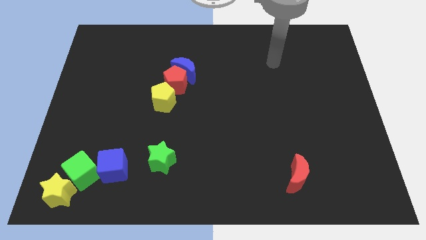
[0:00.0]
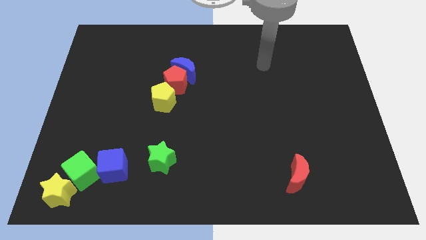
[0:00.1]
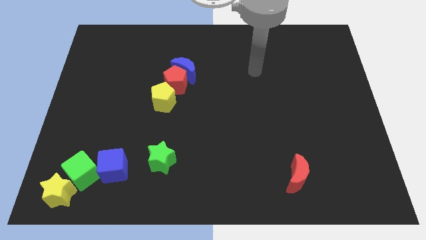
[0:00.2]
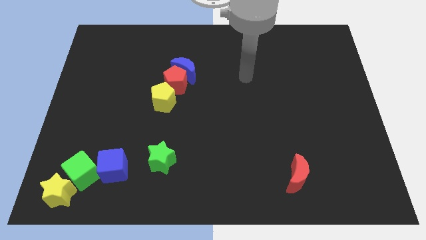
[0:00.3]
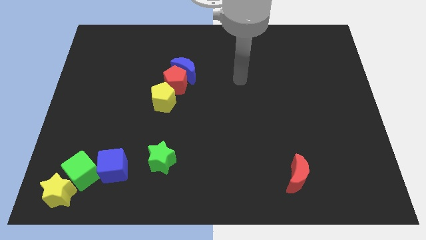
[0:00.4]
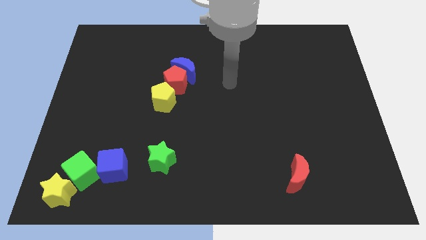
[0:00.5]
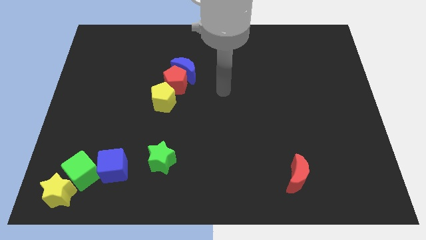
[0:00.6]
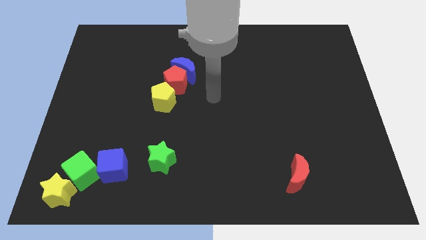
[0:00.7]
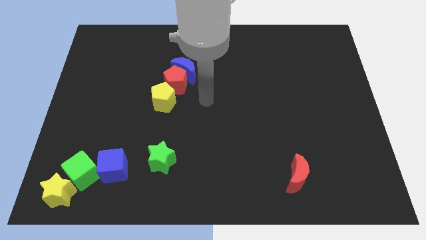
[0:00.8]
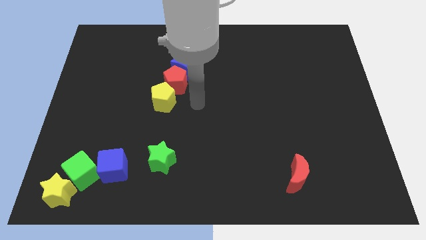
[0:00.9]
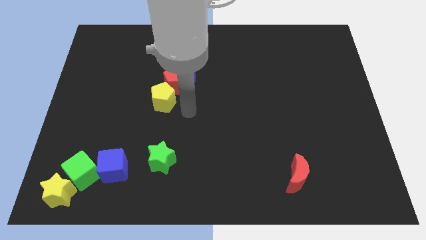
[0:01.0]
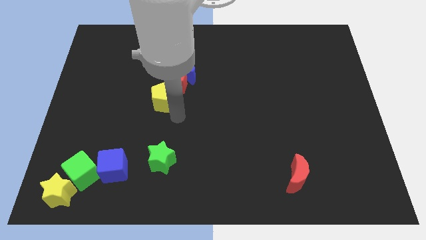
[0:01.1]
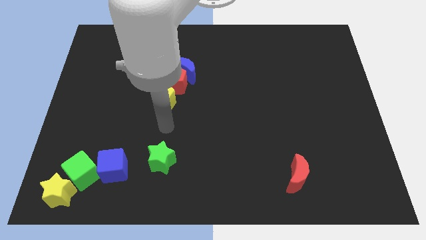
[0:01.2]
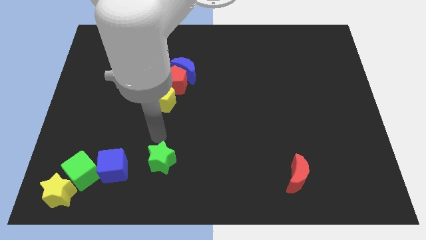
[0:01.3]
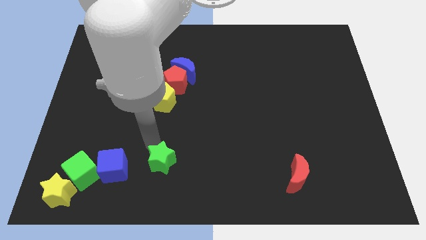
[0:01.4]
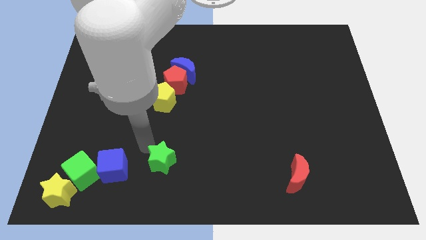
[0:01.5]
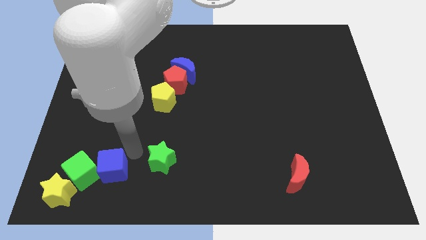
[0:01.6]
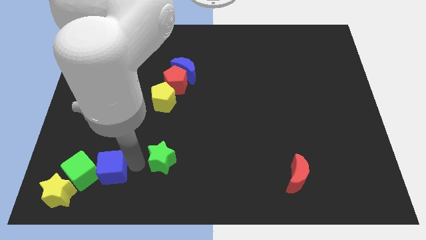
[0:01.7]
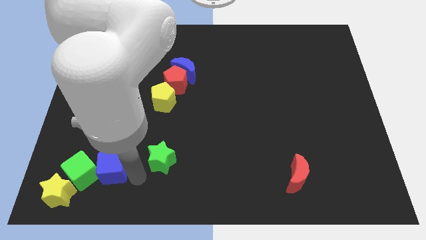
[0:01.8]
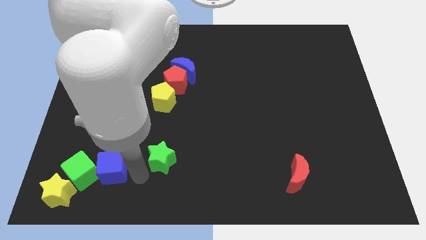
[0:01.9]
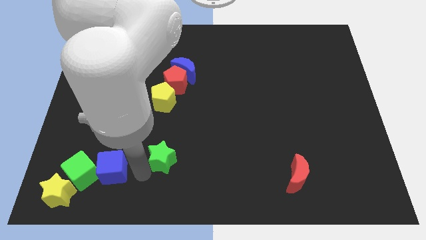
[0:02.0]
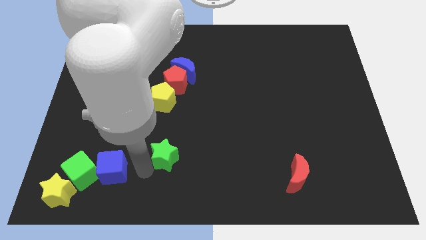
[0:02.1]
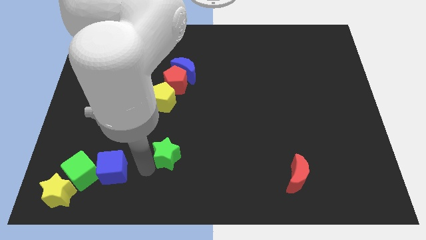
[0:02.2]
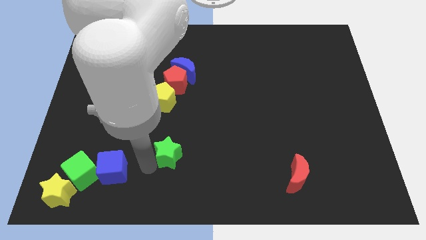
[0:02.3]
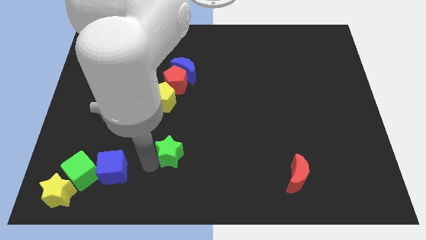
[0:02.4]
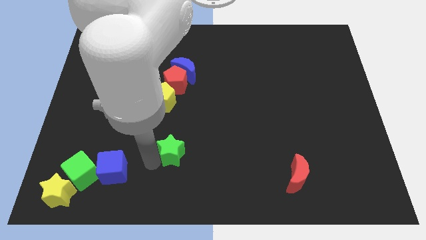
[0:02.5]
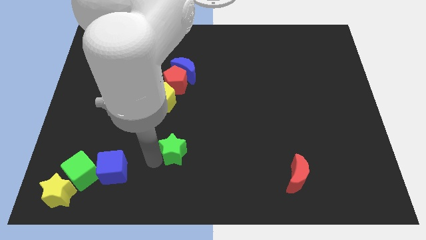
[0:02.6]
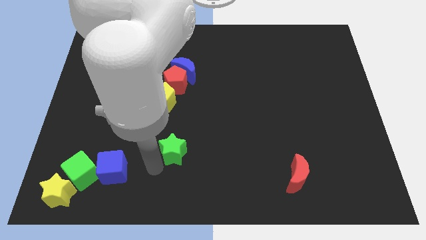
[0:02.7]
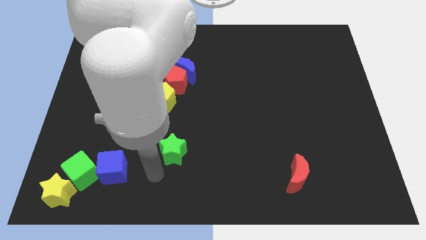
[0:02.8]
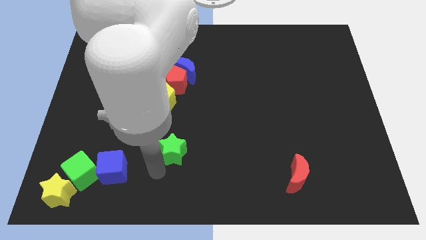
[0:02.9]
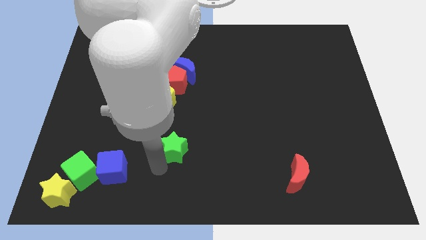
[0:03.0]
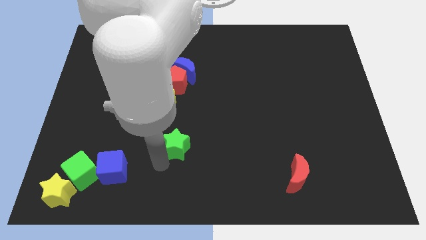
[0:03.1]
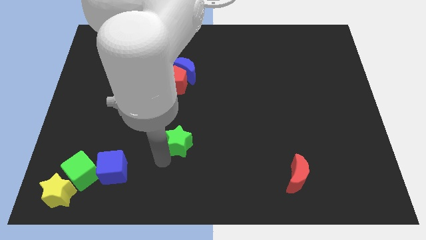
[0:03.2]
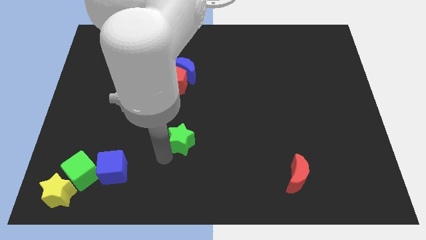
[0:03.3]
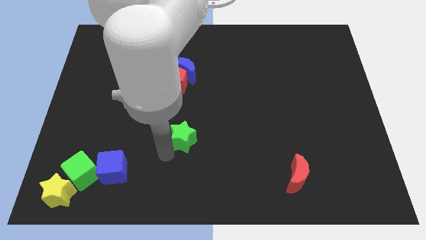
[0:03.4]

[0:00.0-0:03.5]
slightly move the green star up and then to the right

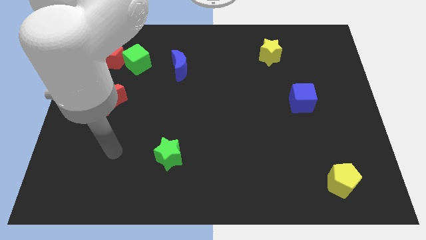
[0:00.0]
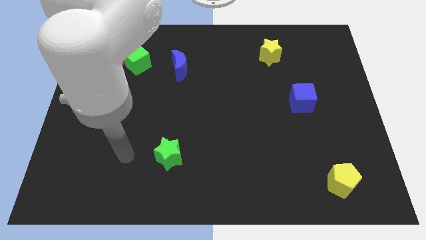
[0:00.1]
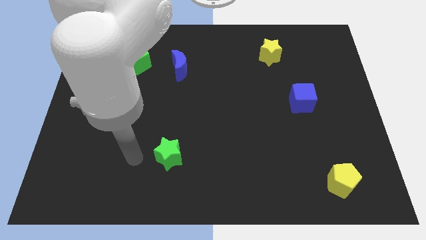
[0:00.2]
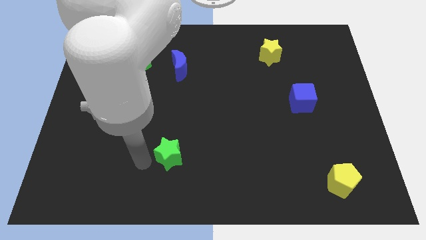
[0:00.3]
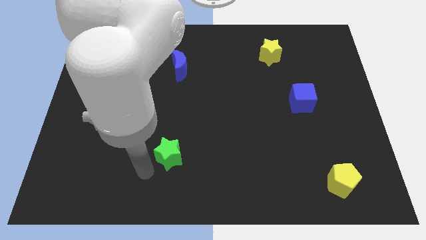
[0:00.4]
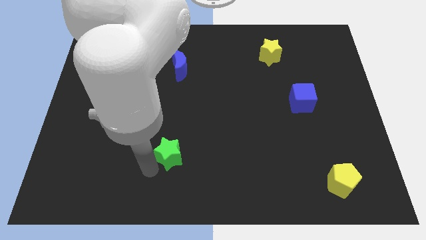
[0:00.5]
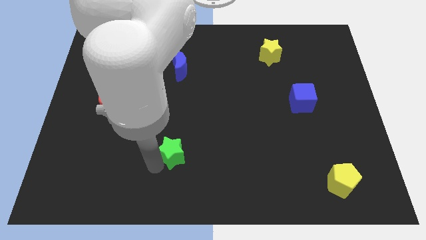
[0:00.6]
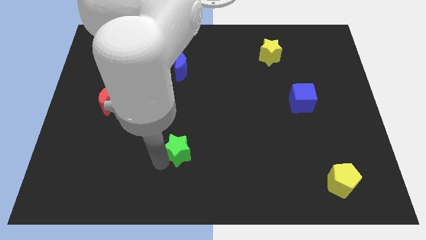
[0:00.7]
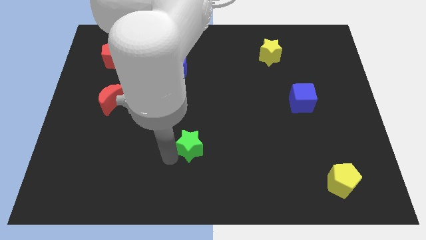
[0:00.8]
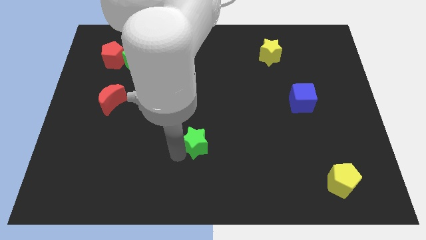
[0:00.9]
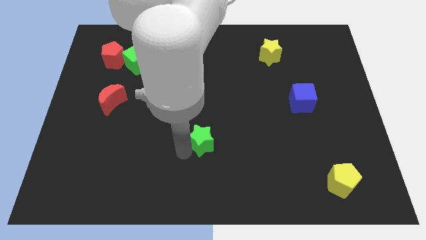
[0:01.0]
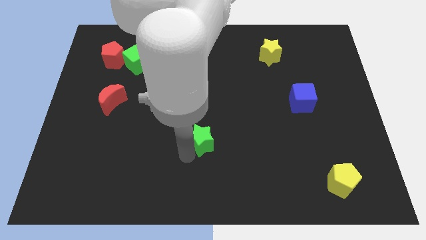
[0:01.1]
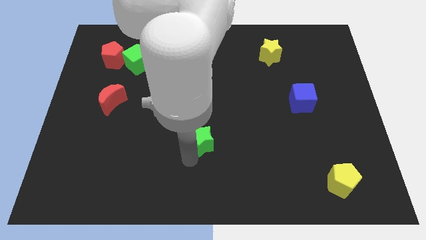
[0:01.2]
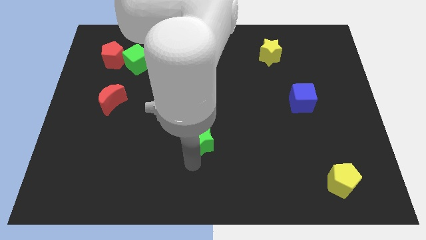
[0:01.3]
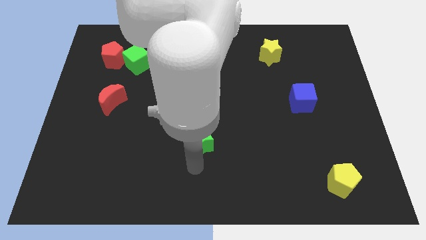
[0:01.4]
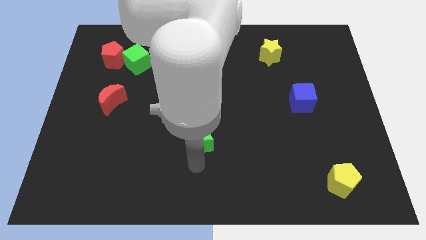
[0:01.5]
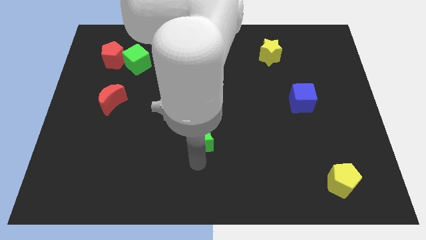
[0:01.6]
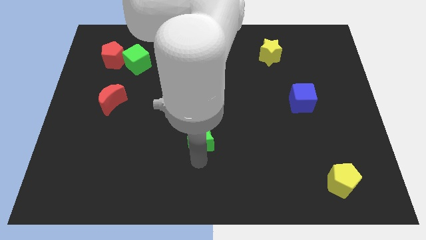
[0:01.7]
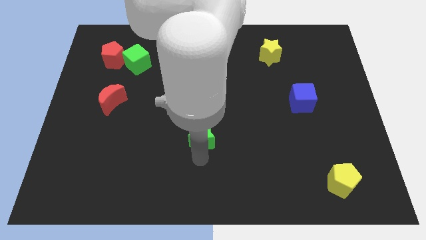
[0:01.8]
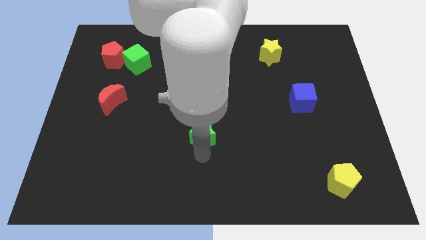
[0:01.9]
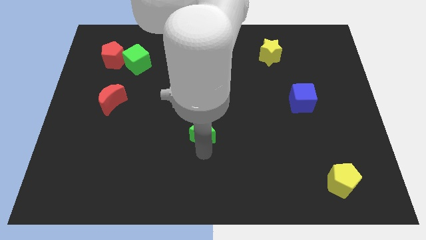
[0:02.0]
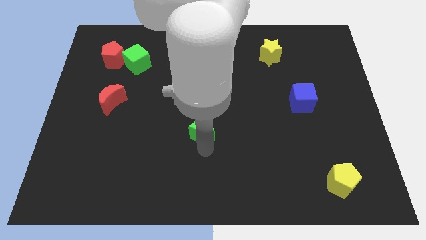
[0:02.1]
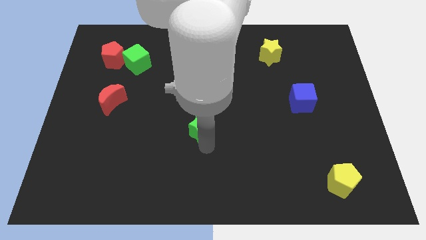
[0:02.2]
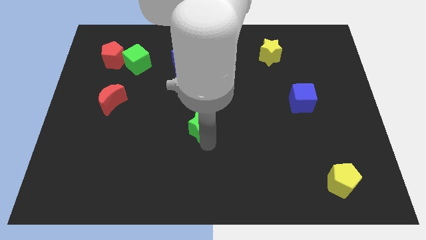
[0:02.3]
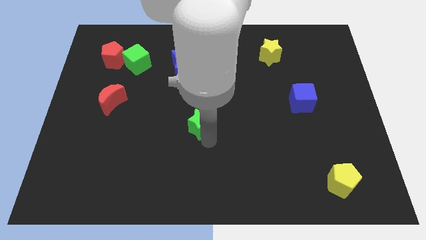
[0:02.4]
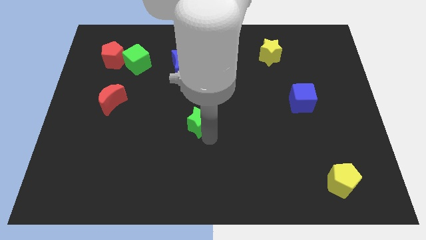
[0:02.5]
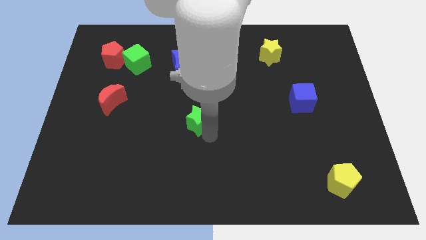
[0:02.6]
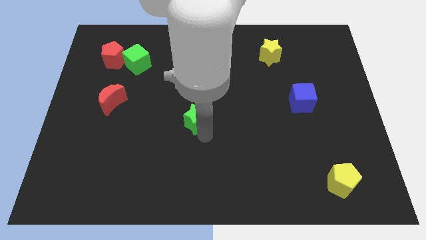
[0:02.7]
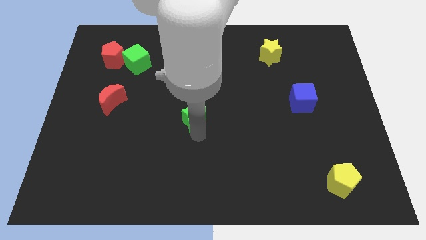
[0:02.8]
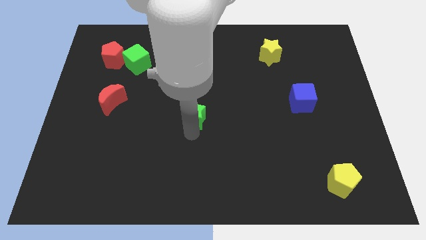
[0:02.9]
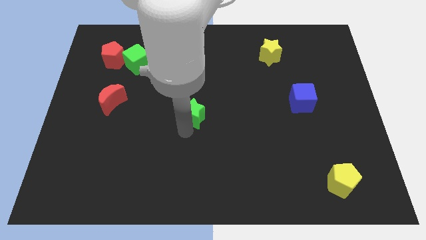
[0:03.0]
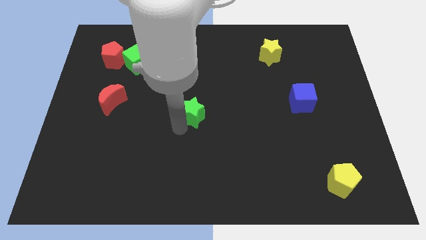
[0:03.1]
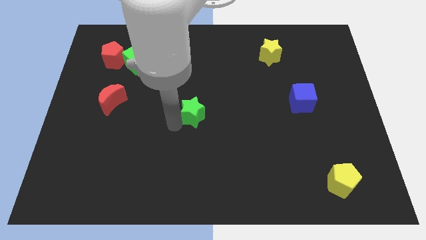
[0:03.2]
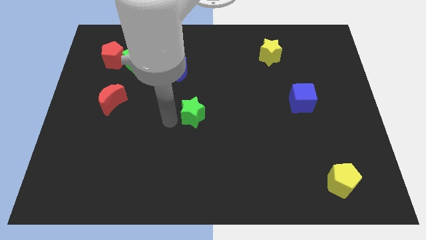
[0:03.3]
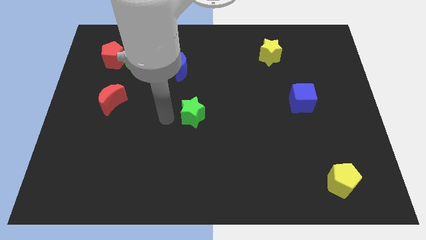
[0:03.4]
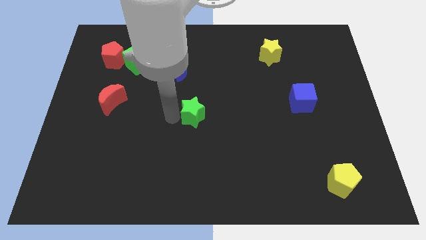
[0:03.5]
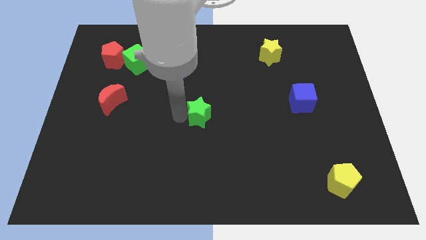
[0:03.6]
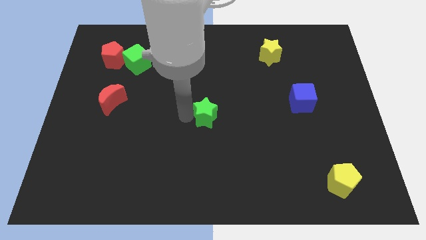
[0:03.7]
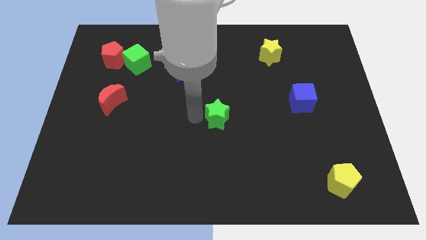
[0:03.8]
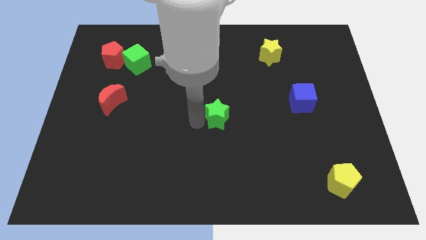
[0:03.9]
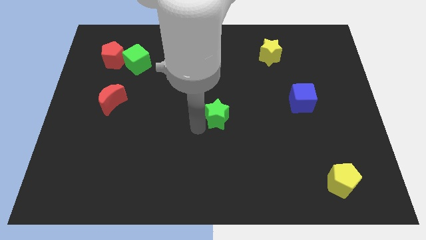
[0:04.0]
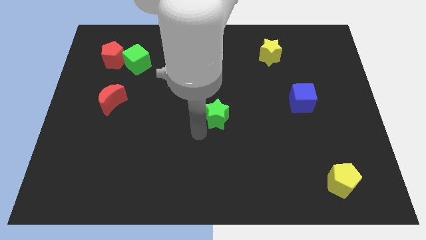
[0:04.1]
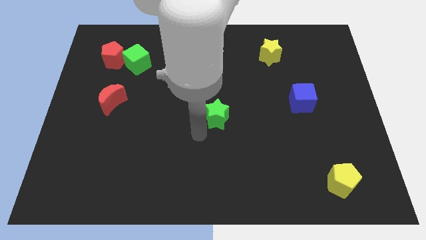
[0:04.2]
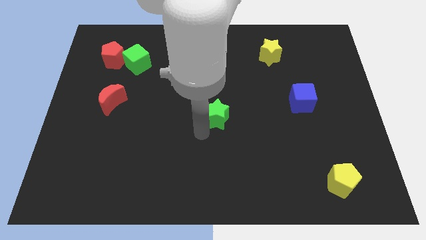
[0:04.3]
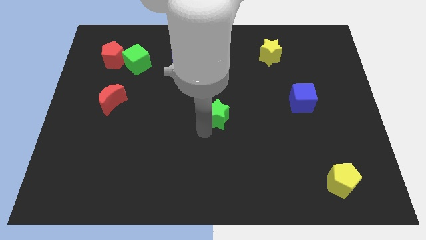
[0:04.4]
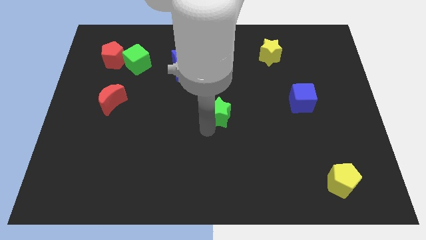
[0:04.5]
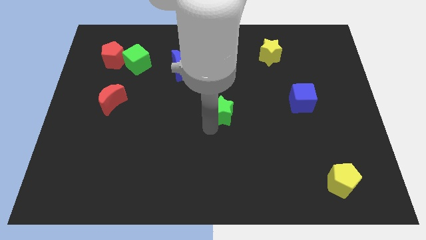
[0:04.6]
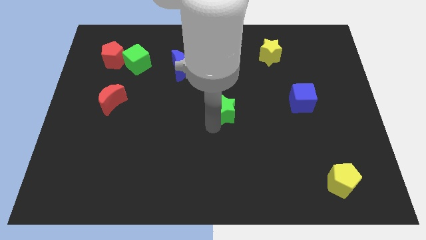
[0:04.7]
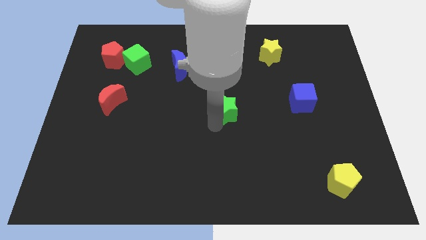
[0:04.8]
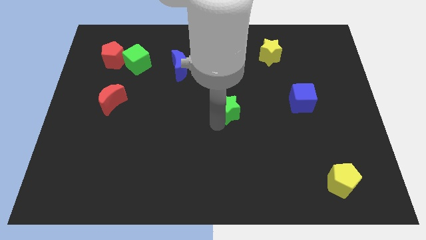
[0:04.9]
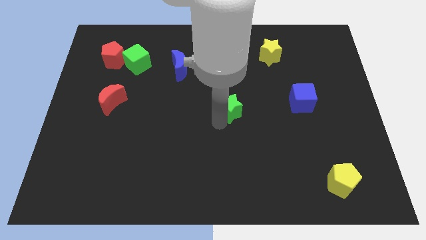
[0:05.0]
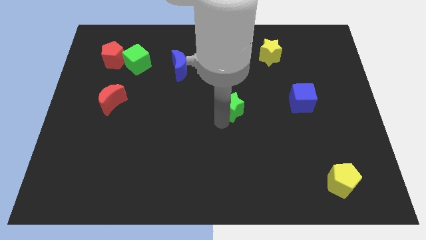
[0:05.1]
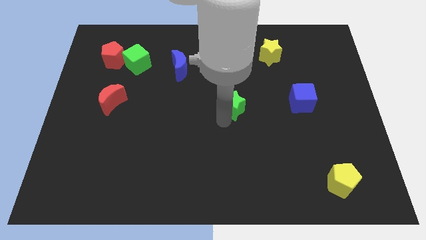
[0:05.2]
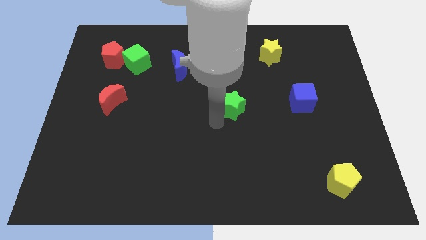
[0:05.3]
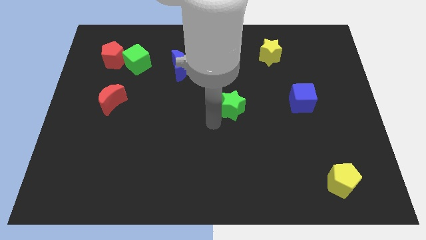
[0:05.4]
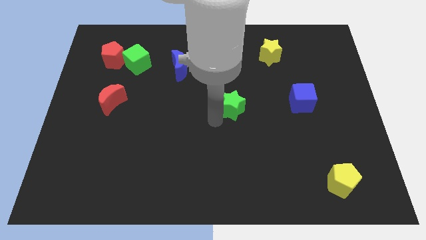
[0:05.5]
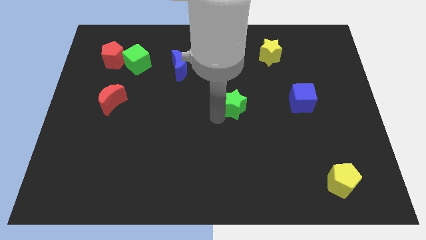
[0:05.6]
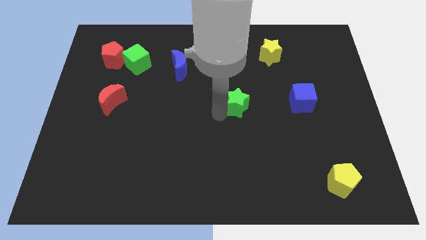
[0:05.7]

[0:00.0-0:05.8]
push the green star upwards and right diagonally
